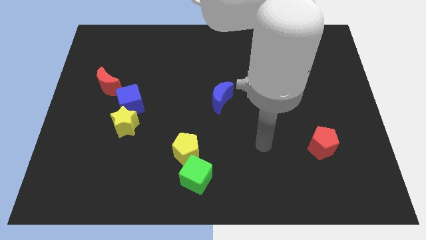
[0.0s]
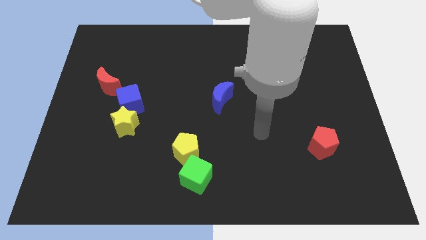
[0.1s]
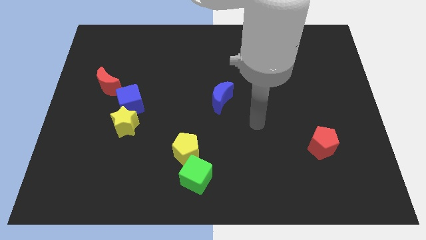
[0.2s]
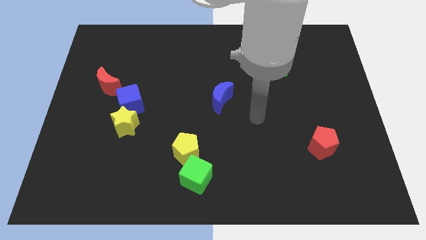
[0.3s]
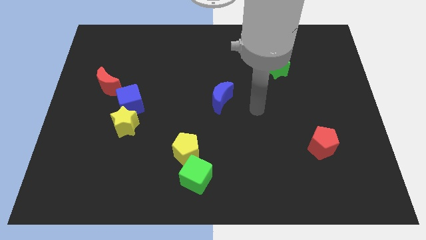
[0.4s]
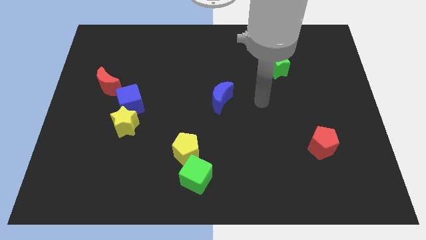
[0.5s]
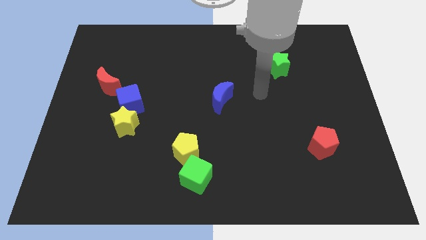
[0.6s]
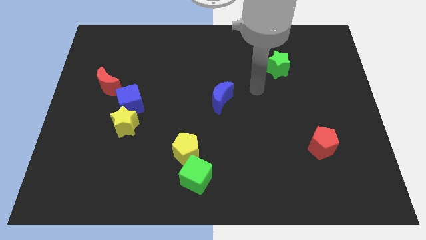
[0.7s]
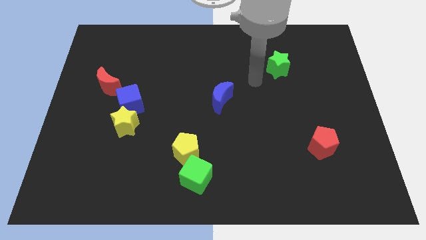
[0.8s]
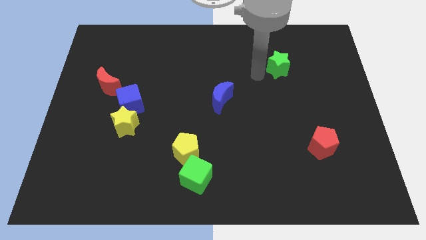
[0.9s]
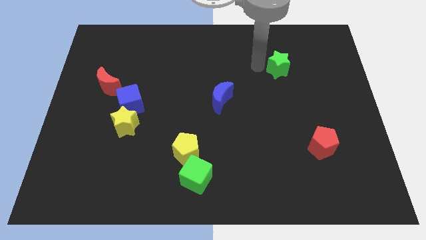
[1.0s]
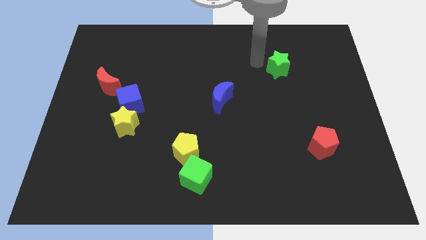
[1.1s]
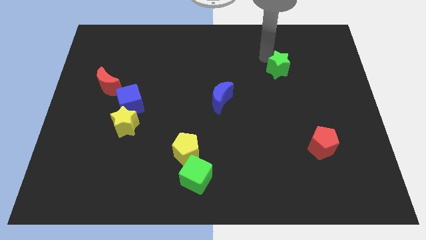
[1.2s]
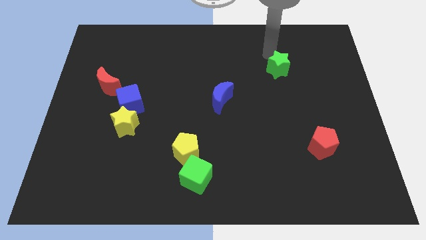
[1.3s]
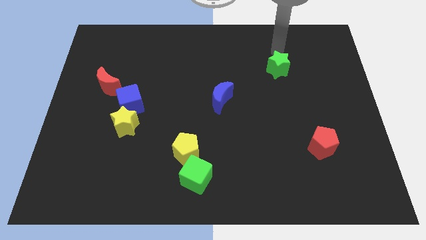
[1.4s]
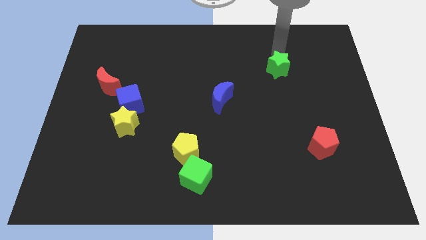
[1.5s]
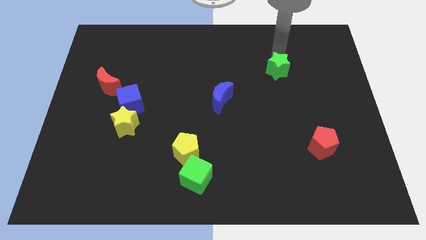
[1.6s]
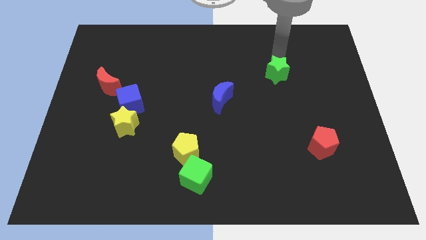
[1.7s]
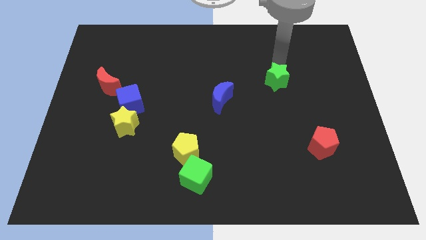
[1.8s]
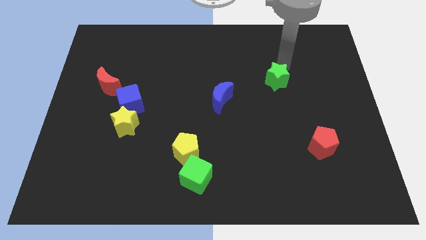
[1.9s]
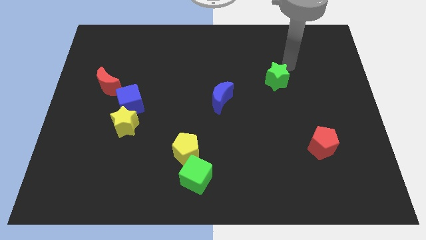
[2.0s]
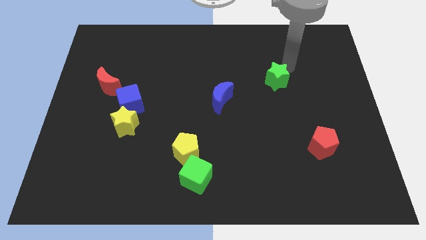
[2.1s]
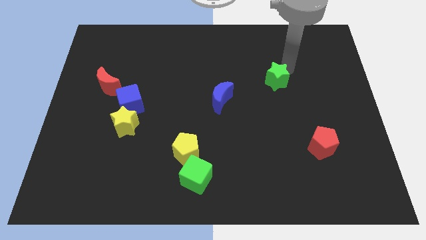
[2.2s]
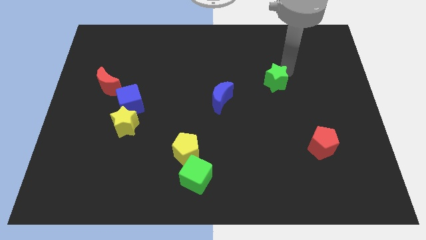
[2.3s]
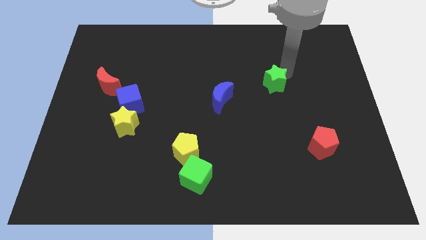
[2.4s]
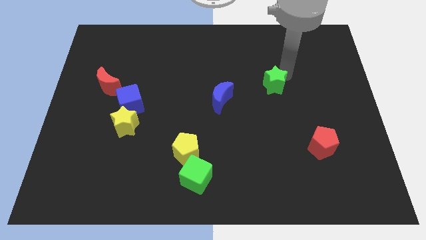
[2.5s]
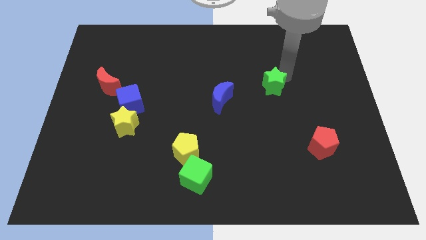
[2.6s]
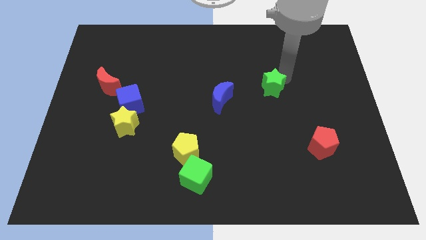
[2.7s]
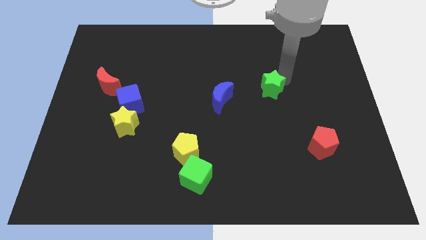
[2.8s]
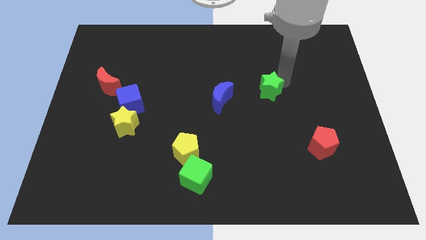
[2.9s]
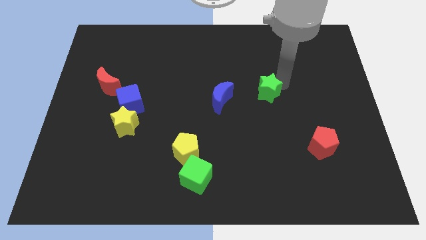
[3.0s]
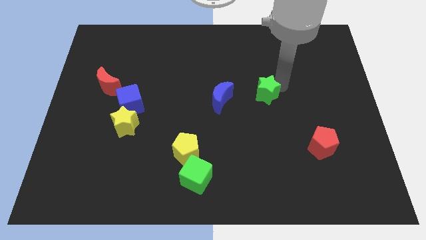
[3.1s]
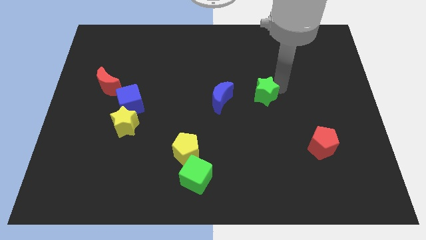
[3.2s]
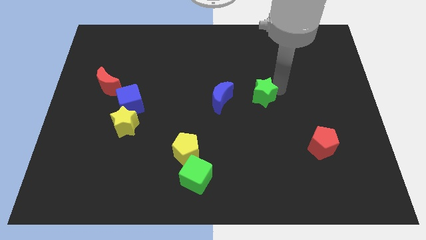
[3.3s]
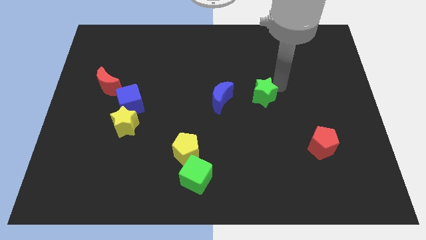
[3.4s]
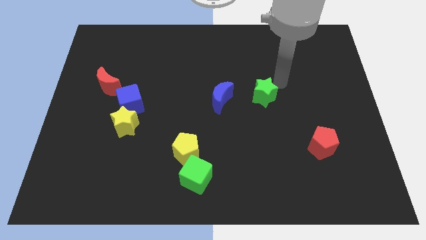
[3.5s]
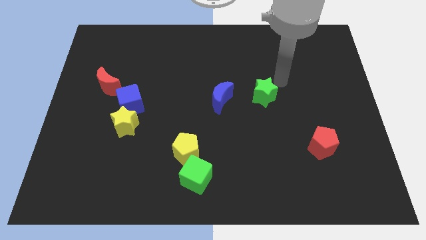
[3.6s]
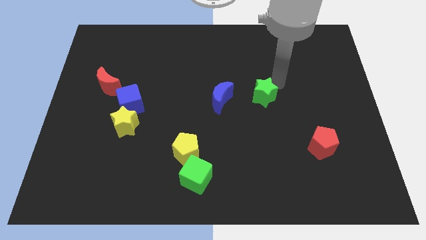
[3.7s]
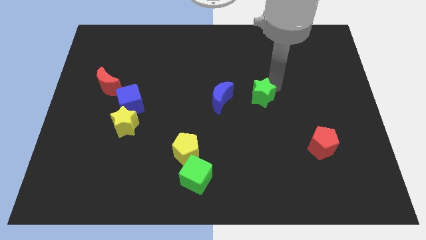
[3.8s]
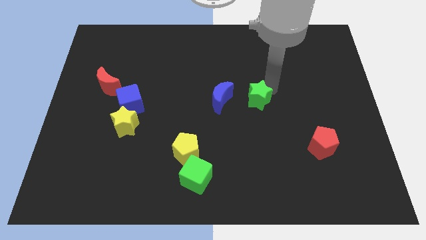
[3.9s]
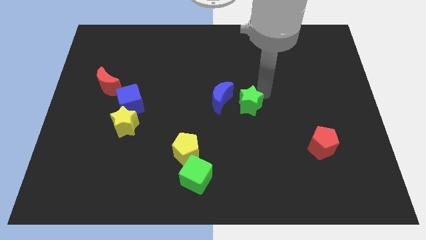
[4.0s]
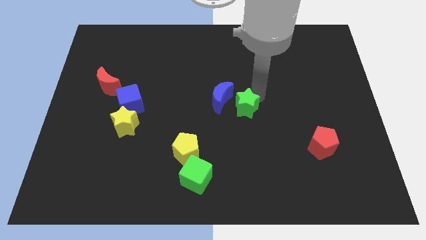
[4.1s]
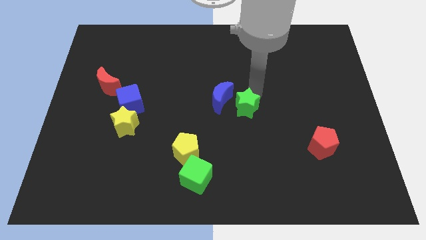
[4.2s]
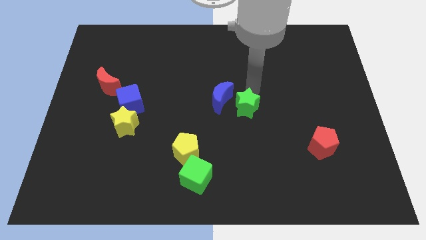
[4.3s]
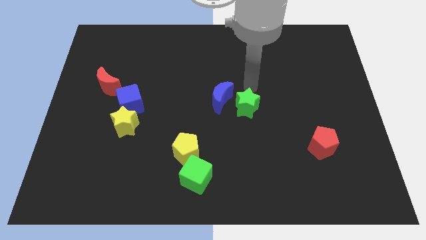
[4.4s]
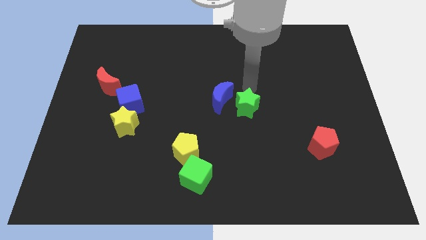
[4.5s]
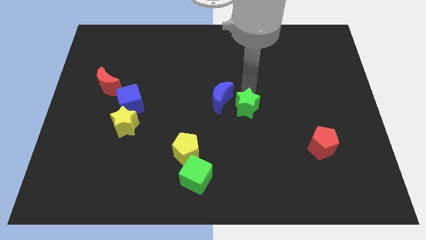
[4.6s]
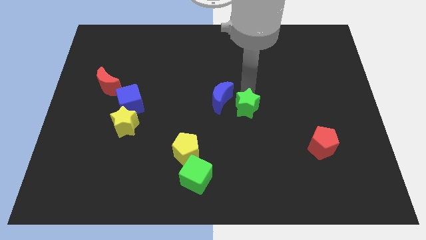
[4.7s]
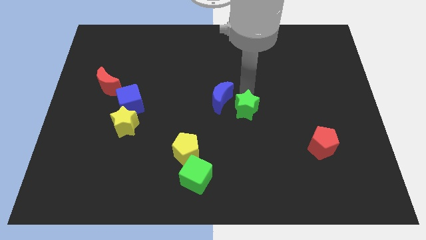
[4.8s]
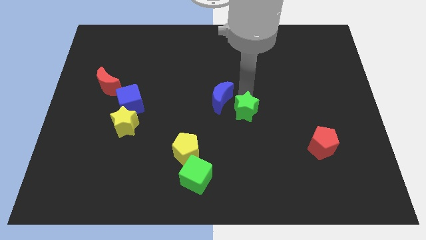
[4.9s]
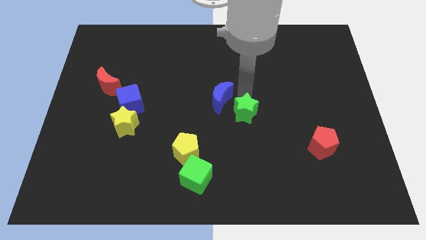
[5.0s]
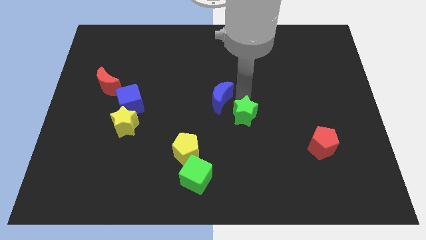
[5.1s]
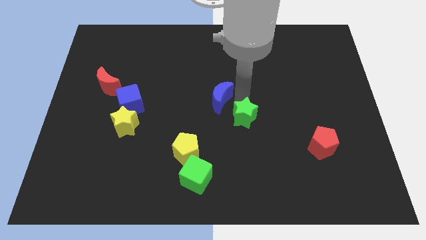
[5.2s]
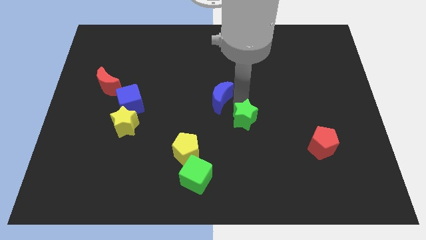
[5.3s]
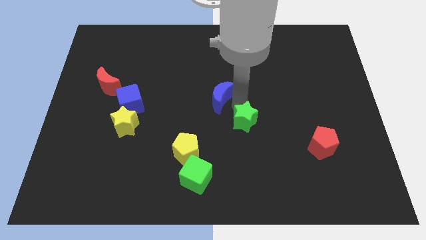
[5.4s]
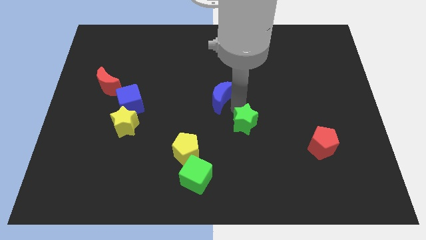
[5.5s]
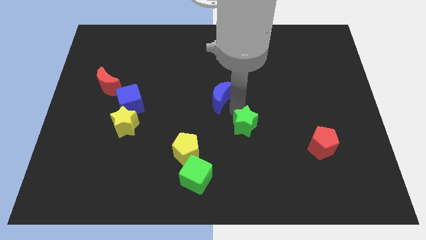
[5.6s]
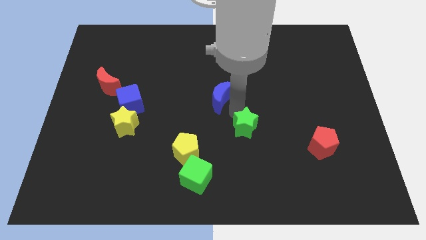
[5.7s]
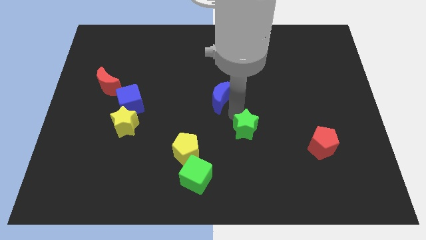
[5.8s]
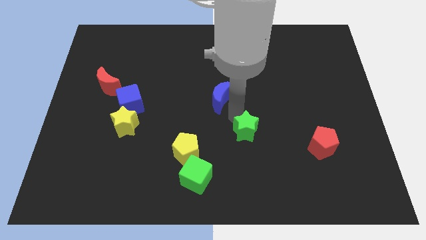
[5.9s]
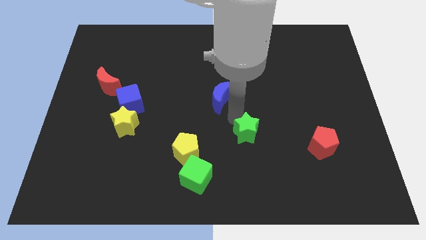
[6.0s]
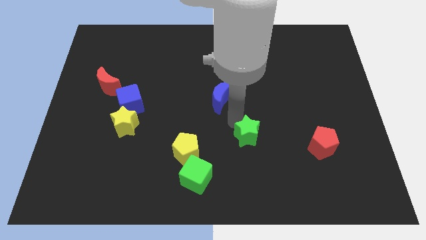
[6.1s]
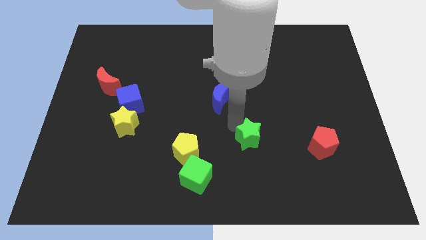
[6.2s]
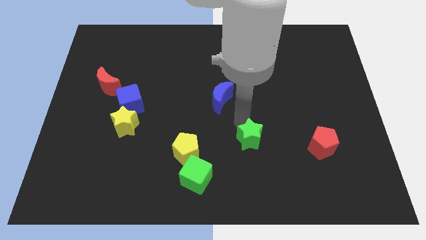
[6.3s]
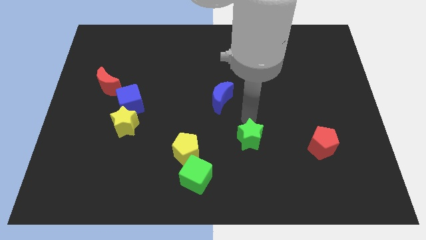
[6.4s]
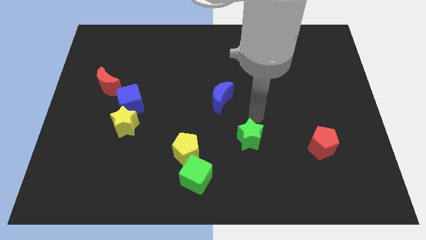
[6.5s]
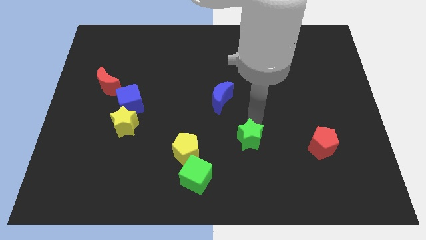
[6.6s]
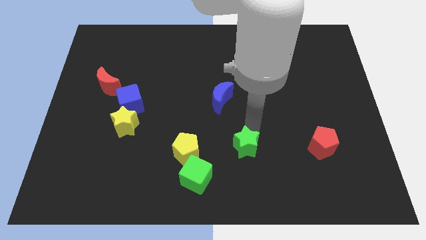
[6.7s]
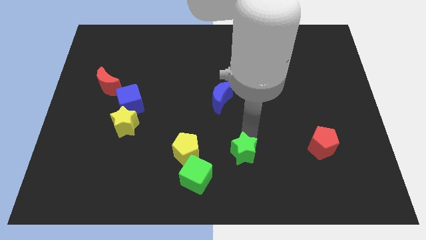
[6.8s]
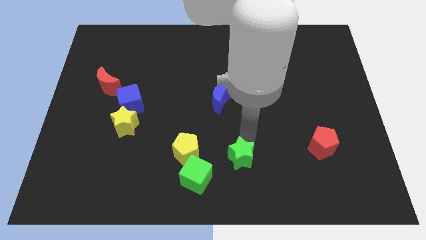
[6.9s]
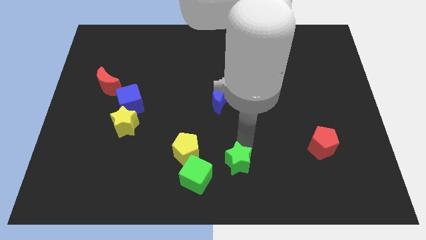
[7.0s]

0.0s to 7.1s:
put the green star to the bottom side
